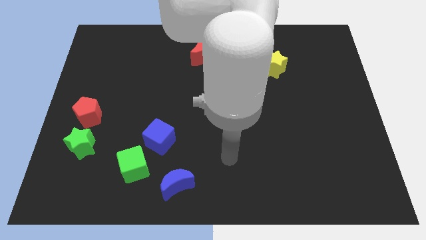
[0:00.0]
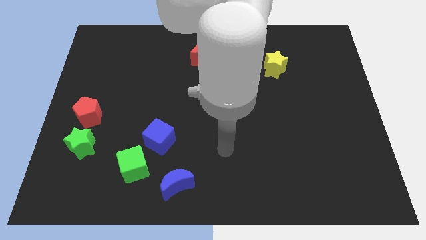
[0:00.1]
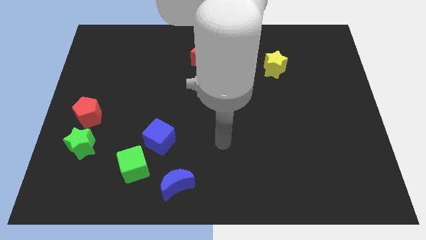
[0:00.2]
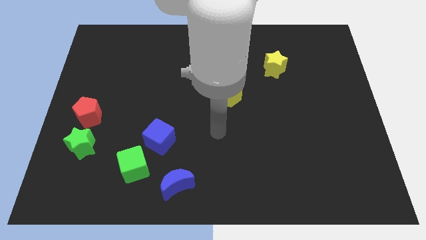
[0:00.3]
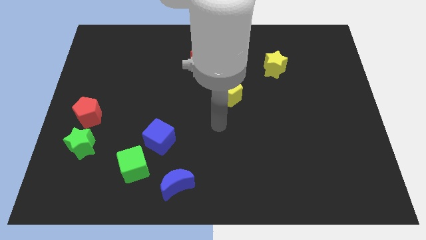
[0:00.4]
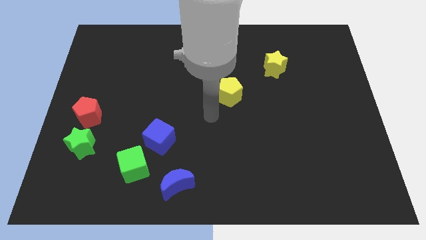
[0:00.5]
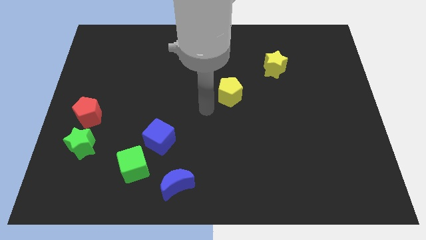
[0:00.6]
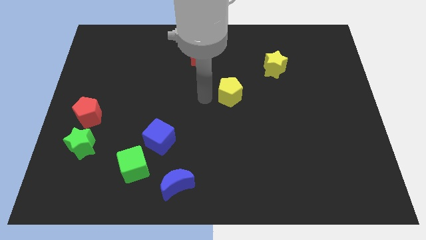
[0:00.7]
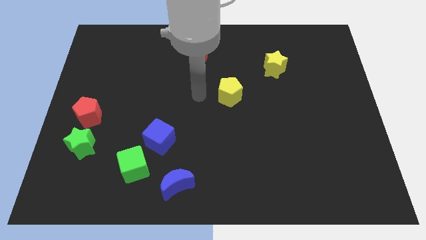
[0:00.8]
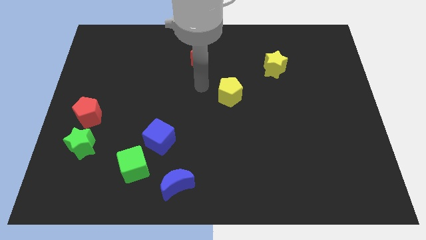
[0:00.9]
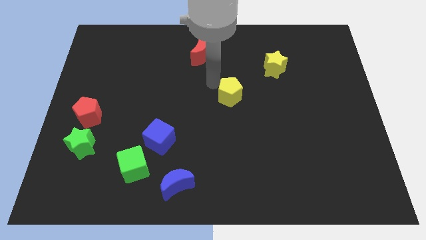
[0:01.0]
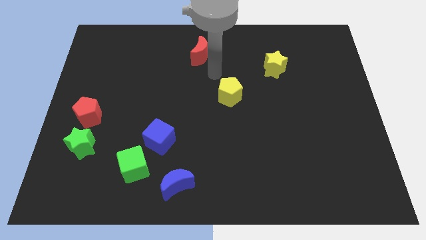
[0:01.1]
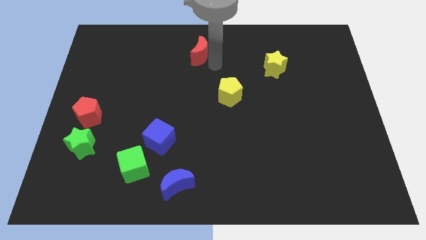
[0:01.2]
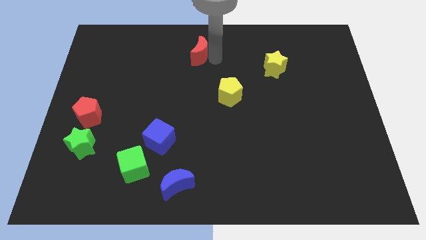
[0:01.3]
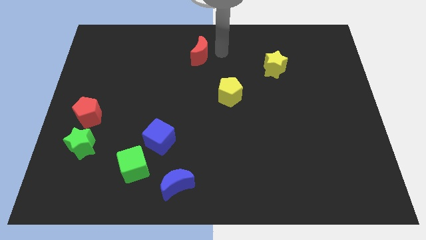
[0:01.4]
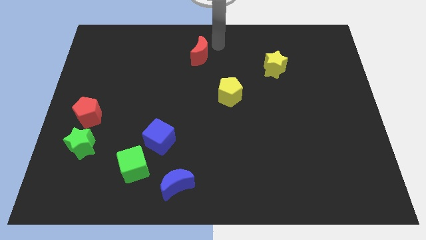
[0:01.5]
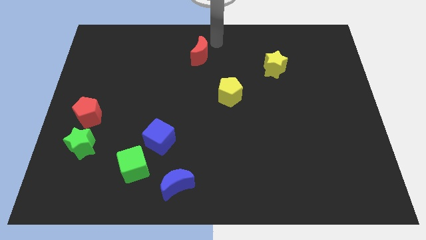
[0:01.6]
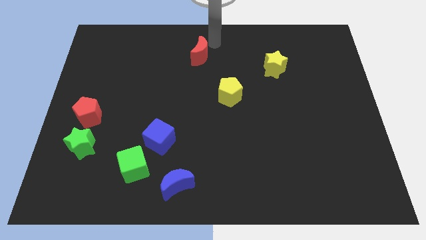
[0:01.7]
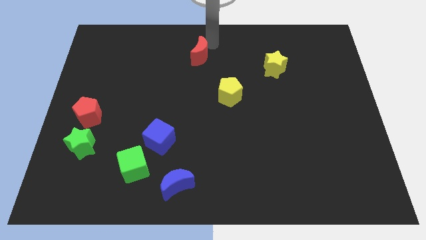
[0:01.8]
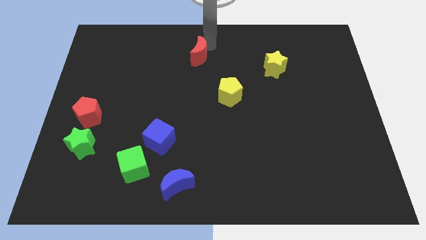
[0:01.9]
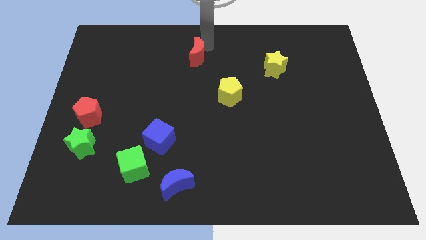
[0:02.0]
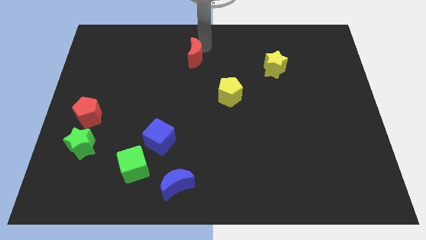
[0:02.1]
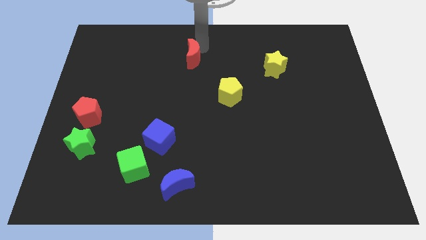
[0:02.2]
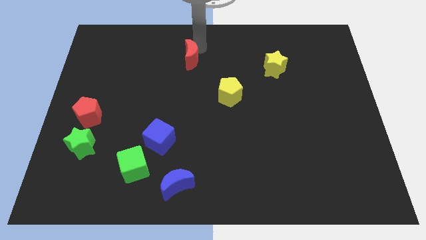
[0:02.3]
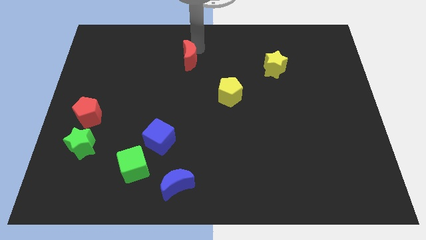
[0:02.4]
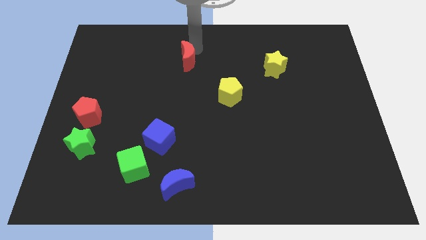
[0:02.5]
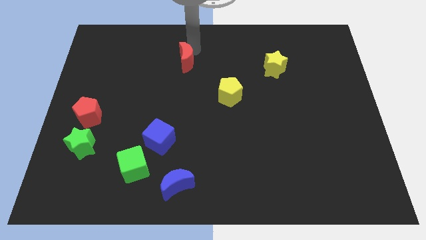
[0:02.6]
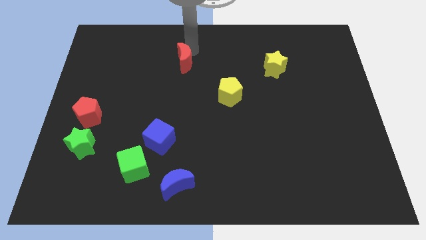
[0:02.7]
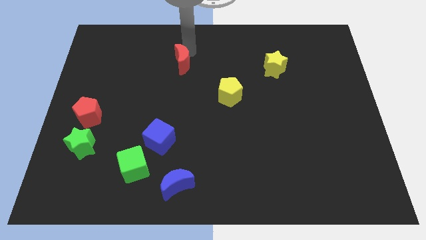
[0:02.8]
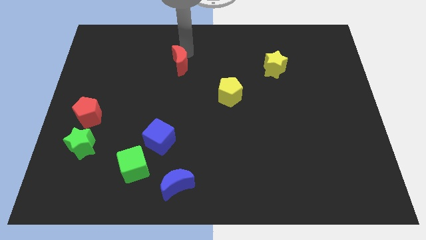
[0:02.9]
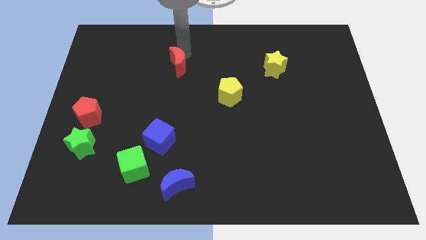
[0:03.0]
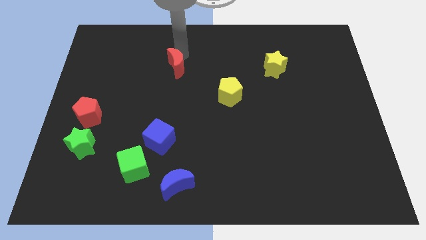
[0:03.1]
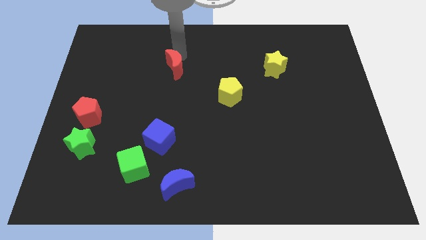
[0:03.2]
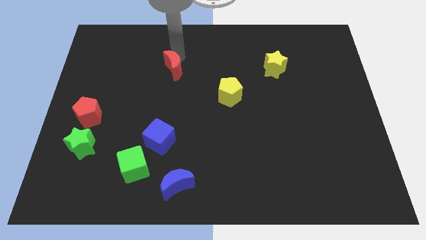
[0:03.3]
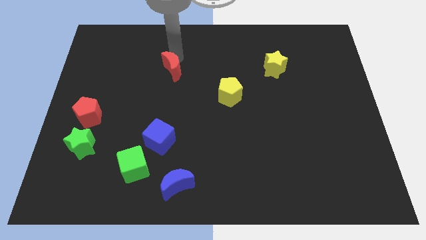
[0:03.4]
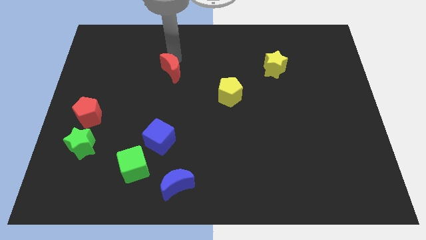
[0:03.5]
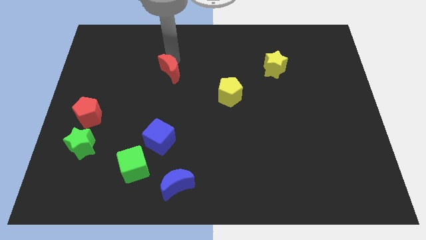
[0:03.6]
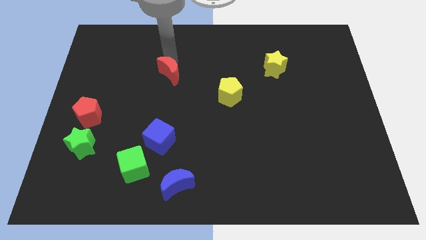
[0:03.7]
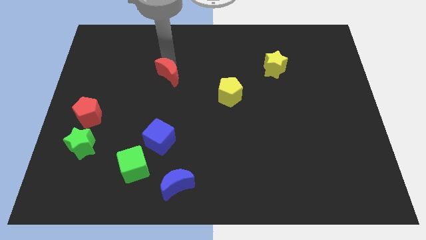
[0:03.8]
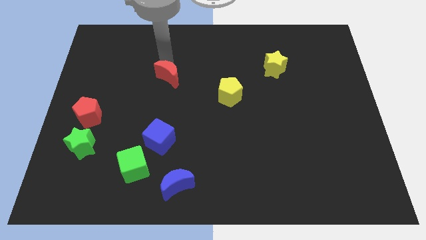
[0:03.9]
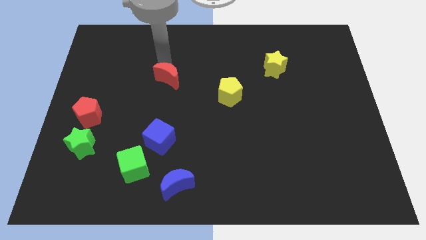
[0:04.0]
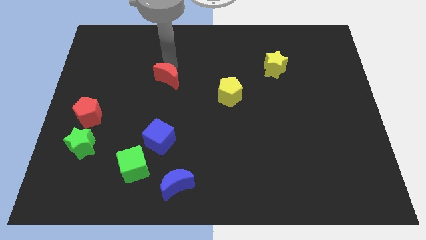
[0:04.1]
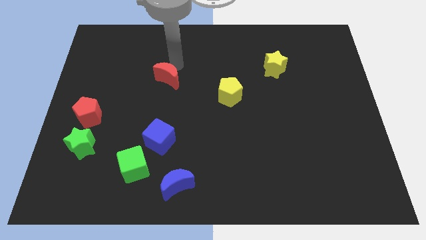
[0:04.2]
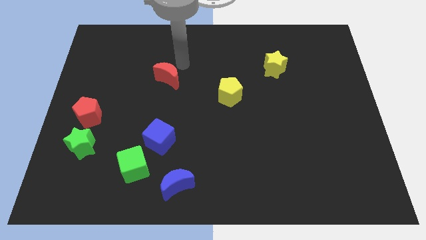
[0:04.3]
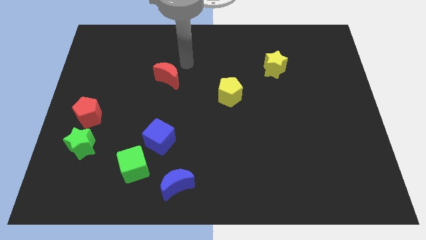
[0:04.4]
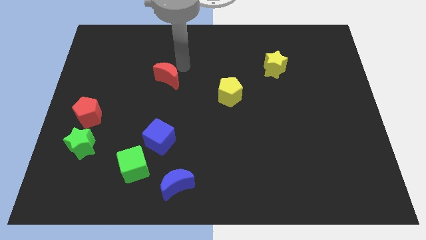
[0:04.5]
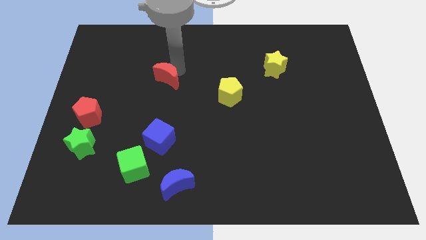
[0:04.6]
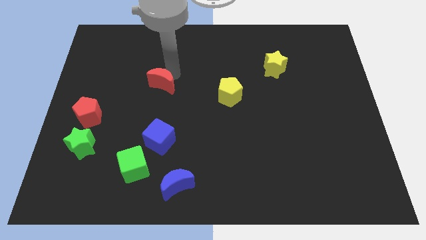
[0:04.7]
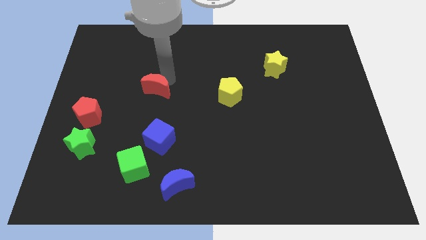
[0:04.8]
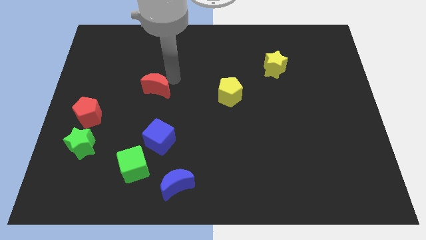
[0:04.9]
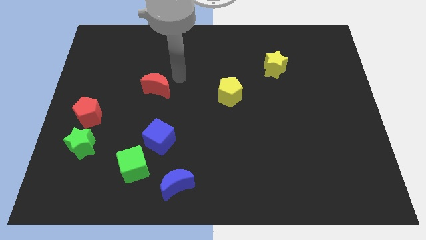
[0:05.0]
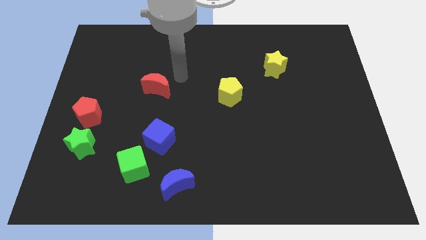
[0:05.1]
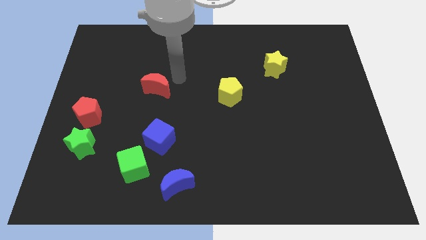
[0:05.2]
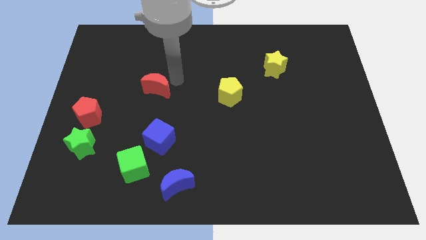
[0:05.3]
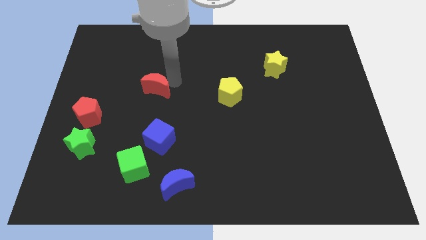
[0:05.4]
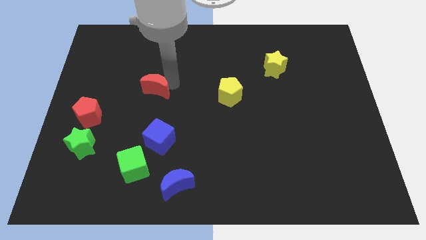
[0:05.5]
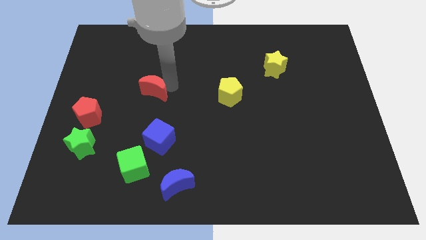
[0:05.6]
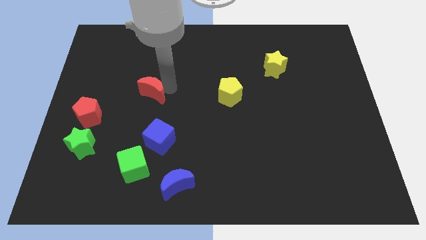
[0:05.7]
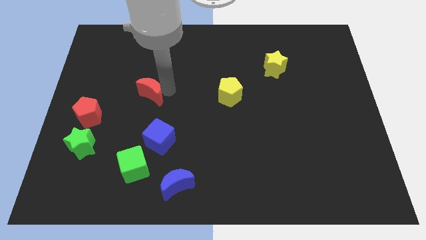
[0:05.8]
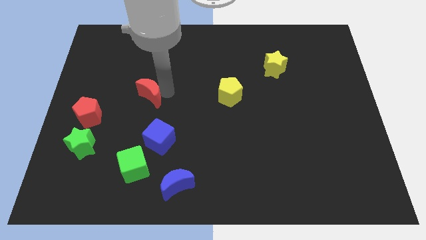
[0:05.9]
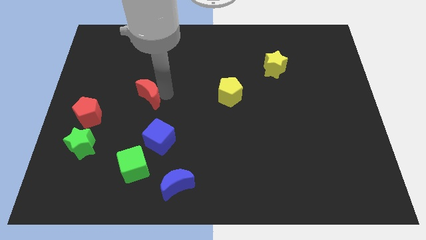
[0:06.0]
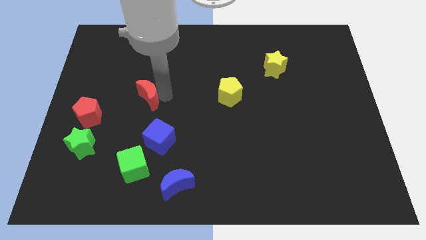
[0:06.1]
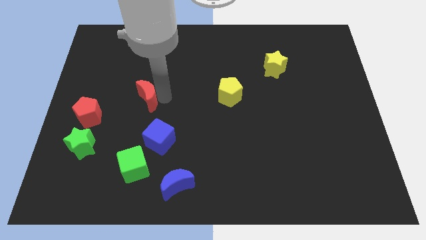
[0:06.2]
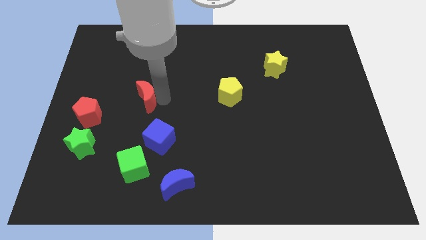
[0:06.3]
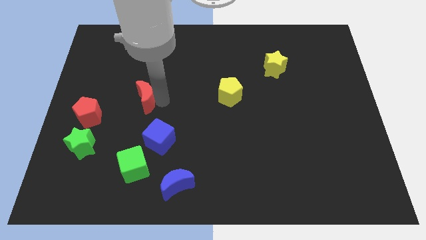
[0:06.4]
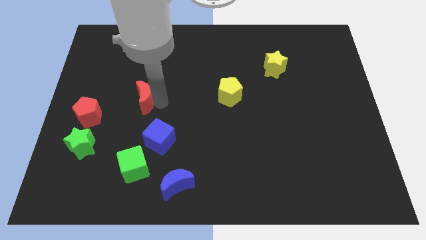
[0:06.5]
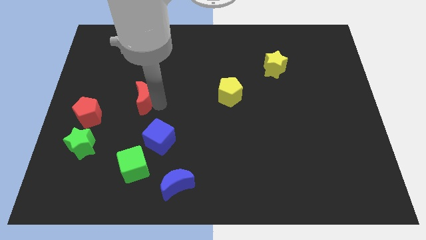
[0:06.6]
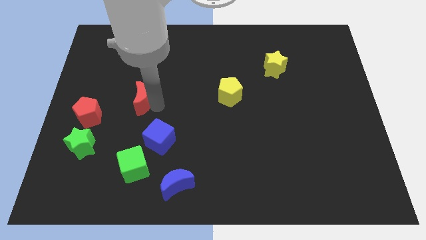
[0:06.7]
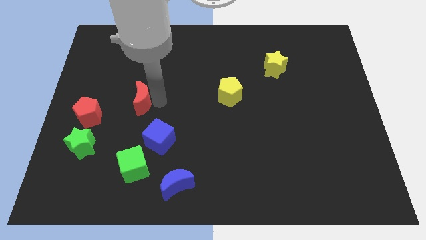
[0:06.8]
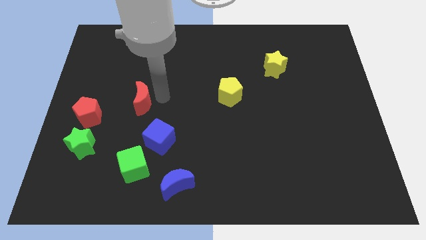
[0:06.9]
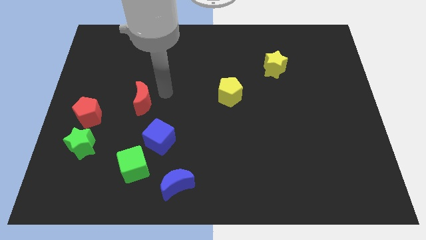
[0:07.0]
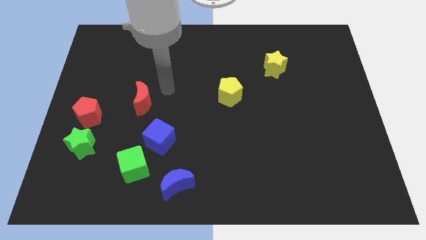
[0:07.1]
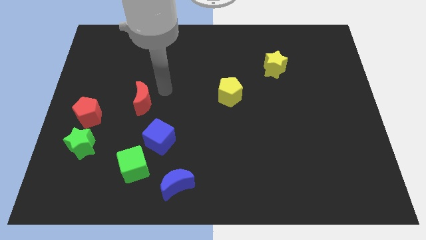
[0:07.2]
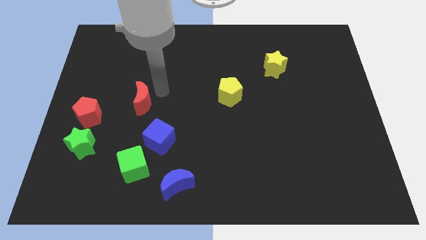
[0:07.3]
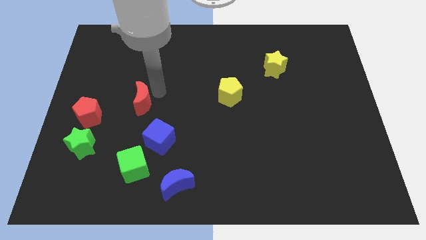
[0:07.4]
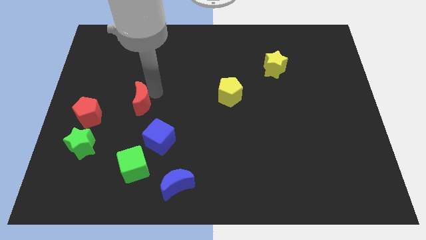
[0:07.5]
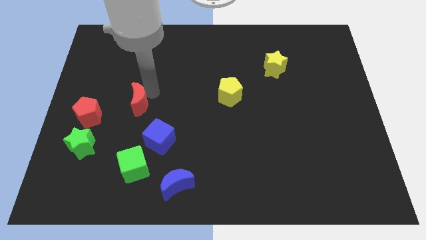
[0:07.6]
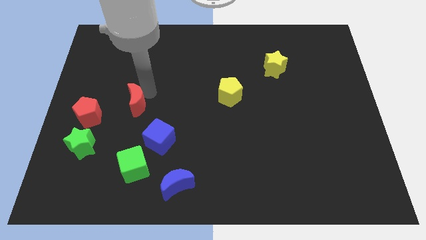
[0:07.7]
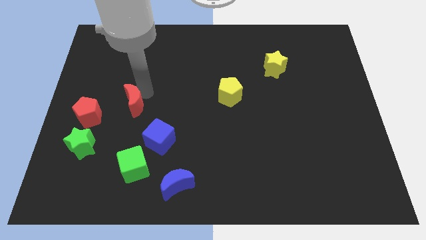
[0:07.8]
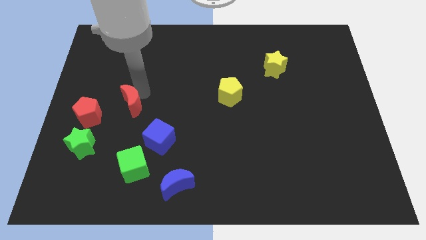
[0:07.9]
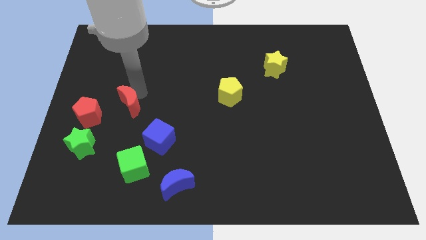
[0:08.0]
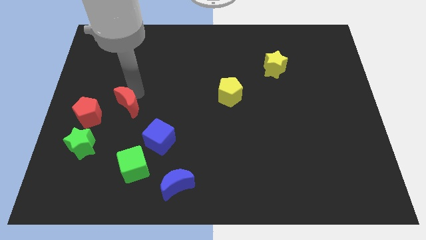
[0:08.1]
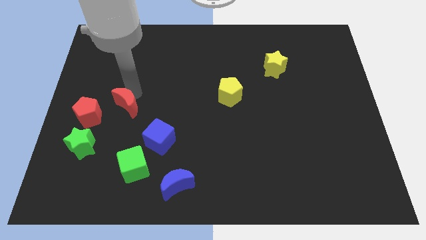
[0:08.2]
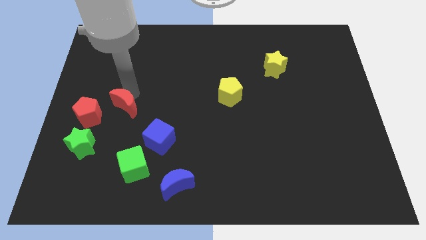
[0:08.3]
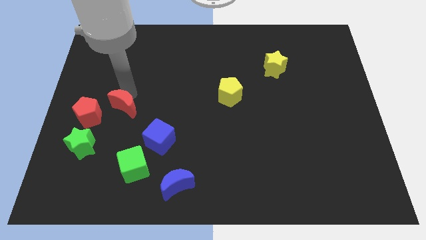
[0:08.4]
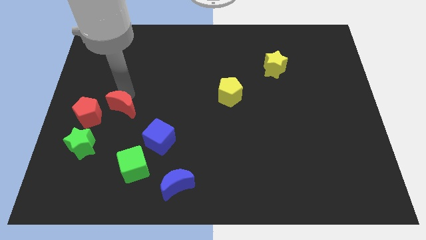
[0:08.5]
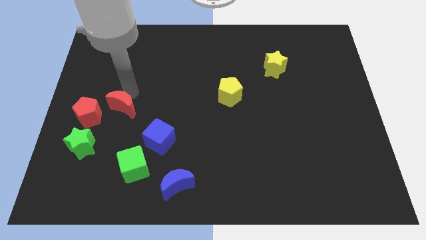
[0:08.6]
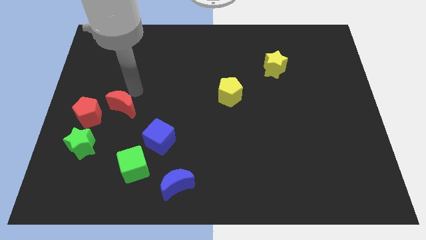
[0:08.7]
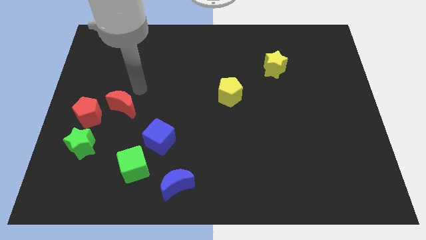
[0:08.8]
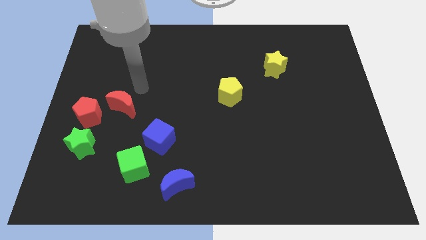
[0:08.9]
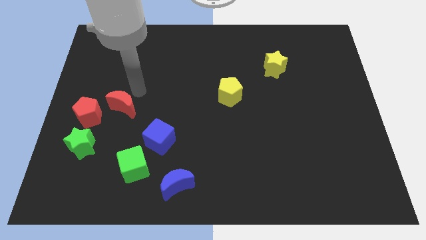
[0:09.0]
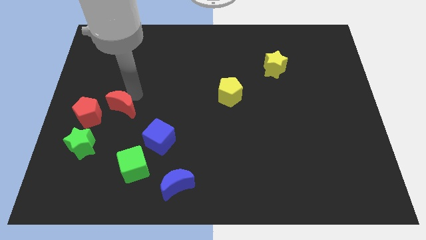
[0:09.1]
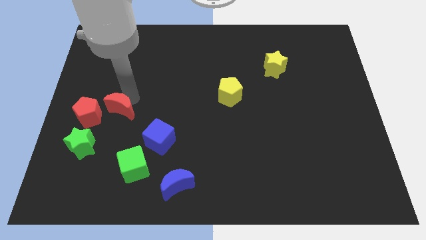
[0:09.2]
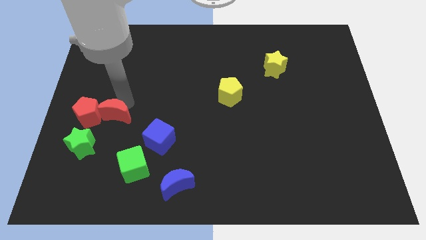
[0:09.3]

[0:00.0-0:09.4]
push the red moon to the bottom right of the red pentagon
